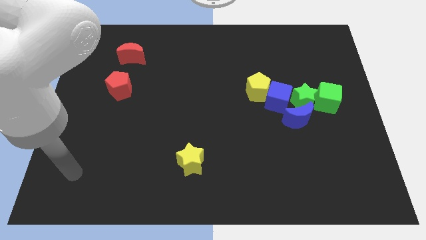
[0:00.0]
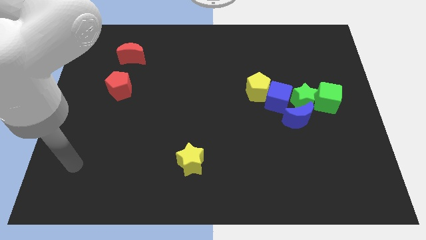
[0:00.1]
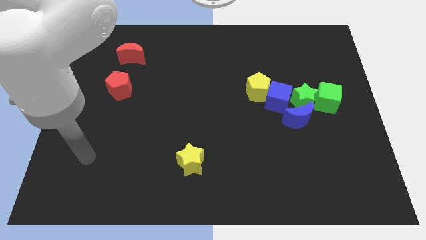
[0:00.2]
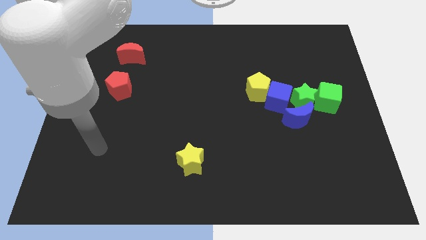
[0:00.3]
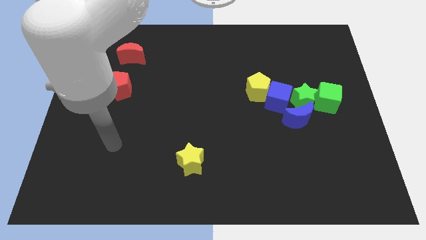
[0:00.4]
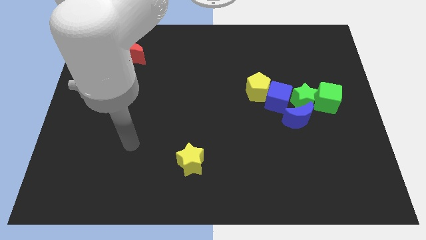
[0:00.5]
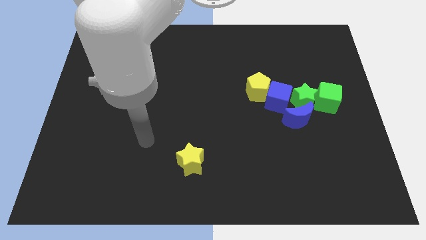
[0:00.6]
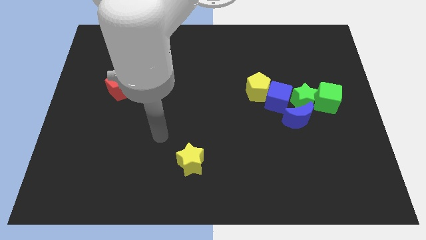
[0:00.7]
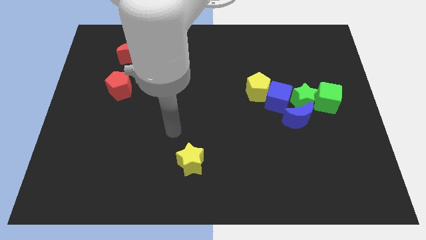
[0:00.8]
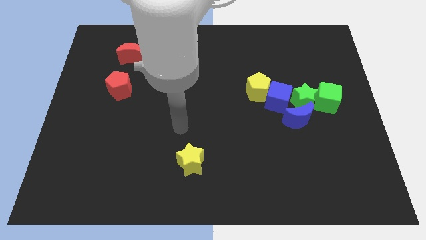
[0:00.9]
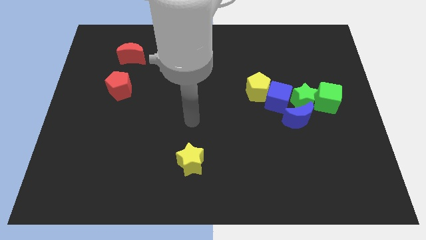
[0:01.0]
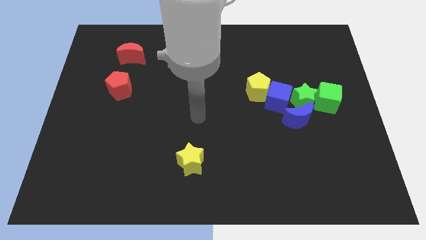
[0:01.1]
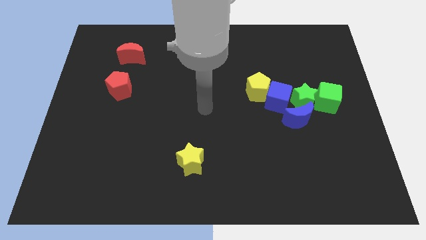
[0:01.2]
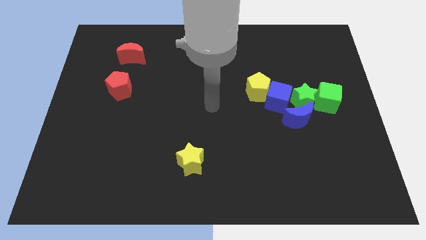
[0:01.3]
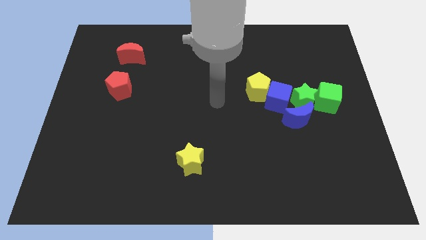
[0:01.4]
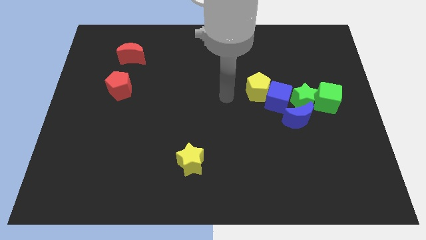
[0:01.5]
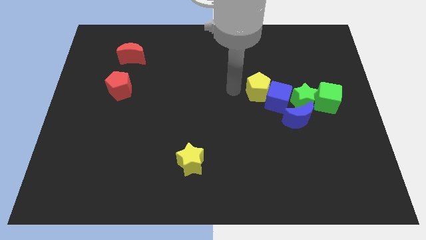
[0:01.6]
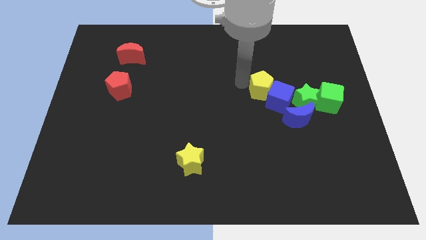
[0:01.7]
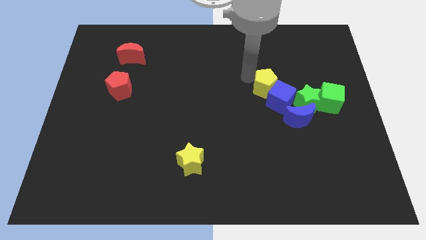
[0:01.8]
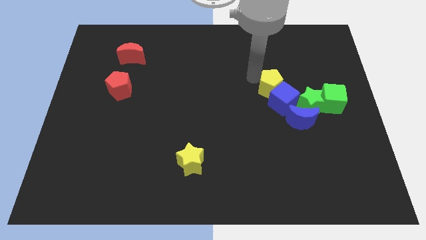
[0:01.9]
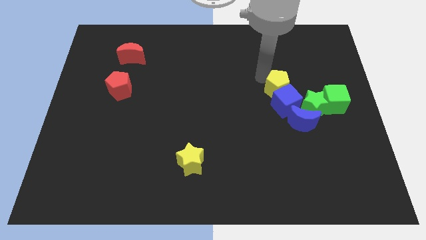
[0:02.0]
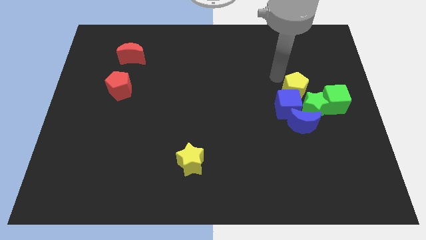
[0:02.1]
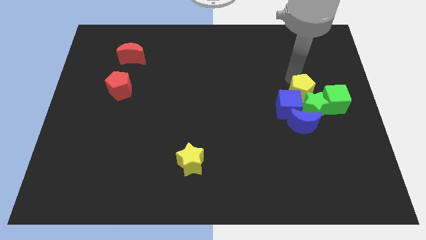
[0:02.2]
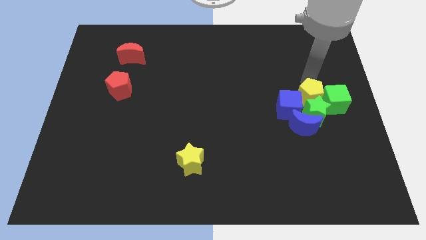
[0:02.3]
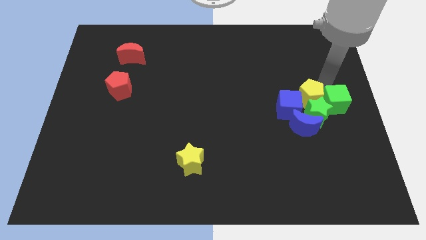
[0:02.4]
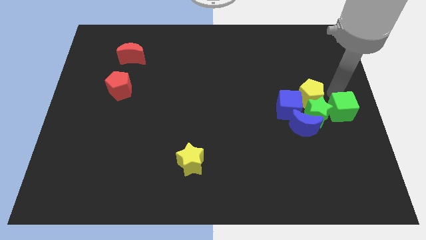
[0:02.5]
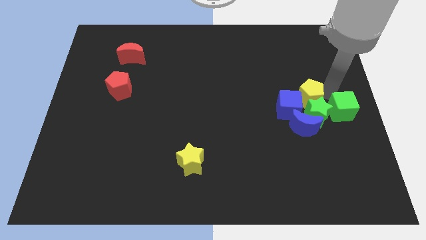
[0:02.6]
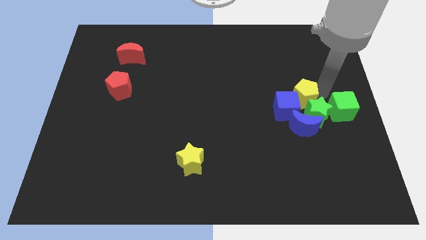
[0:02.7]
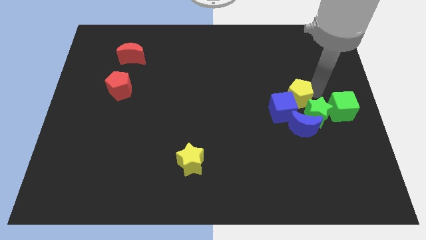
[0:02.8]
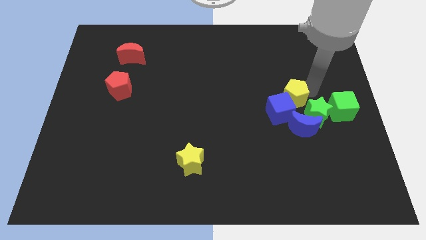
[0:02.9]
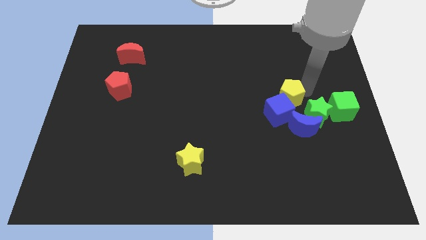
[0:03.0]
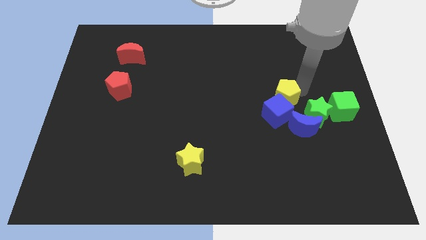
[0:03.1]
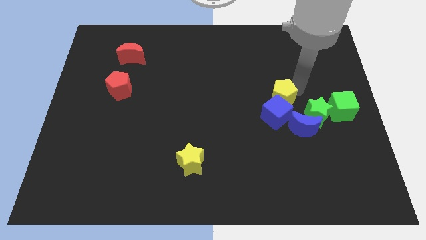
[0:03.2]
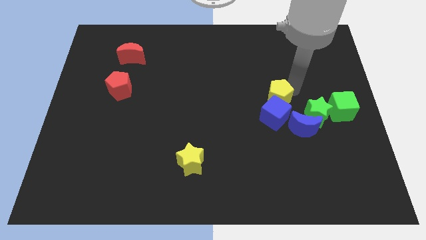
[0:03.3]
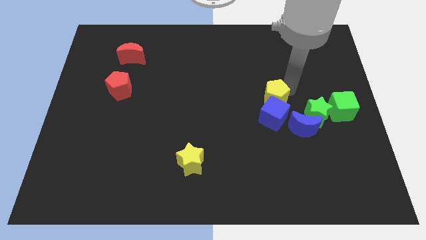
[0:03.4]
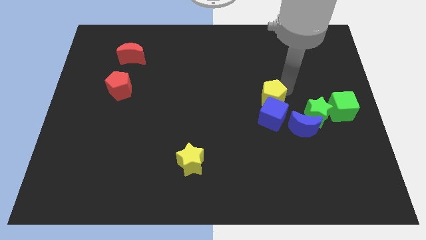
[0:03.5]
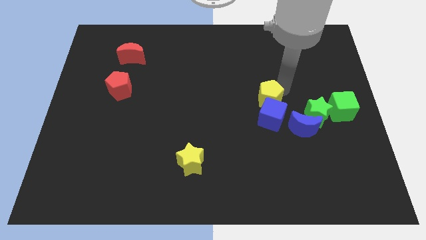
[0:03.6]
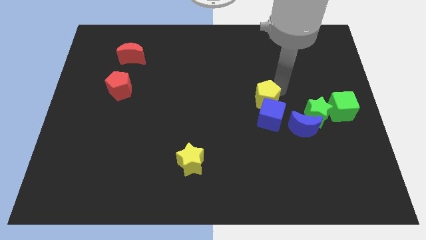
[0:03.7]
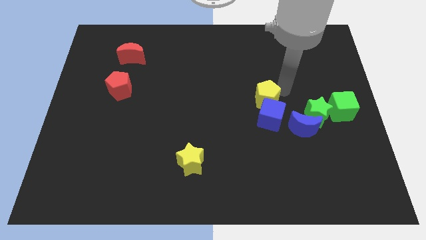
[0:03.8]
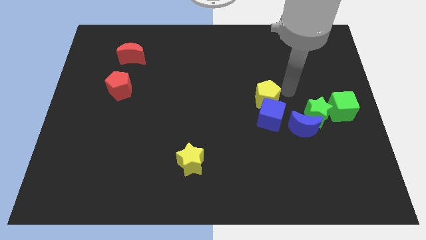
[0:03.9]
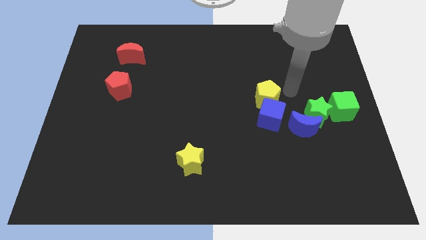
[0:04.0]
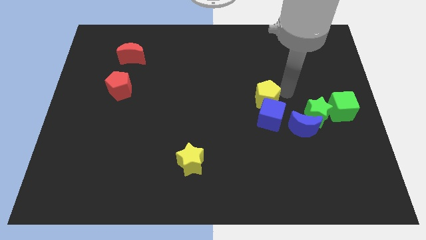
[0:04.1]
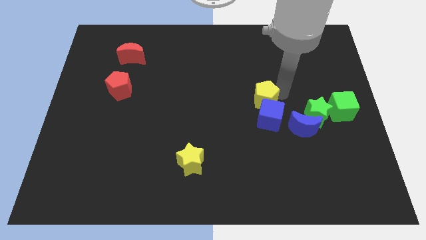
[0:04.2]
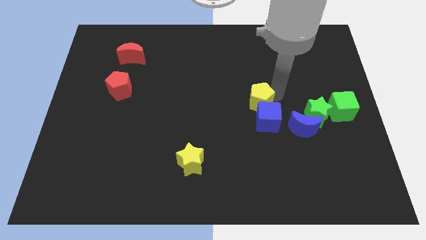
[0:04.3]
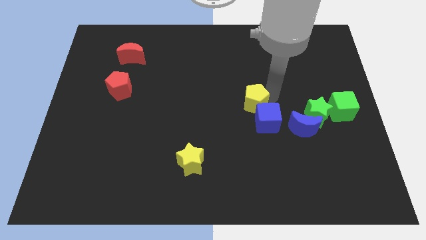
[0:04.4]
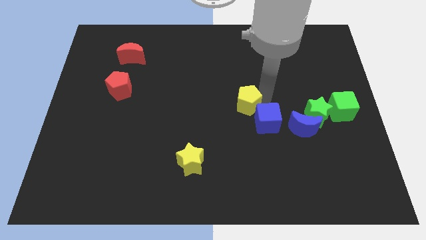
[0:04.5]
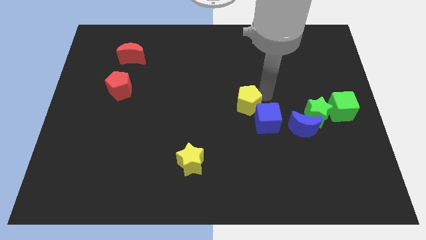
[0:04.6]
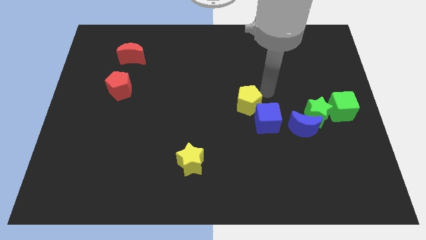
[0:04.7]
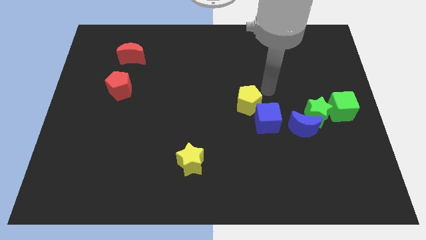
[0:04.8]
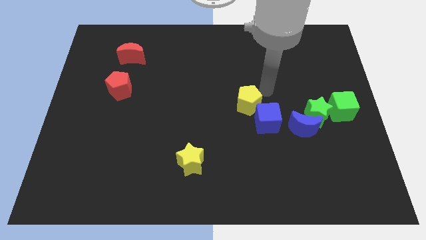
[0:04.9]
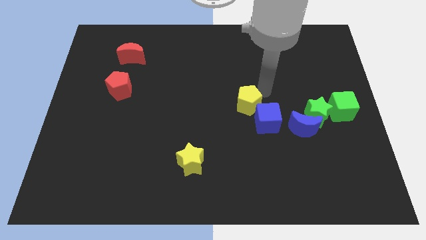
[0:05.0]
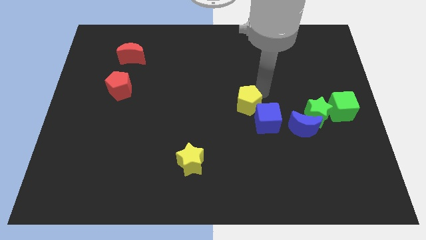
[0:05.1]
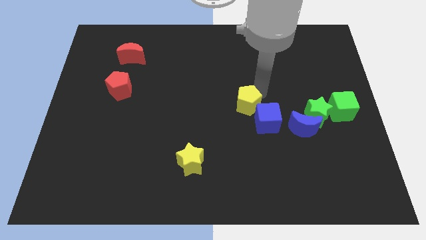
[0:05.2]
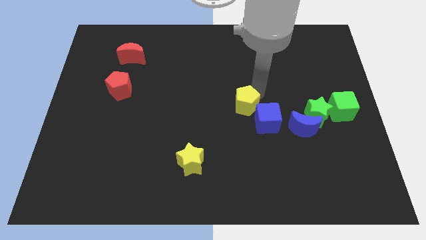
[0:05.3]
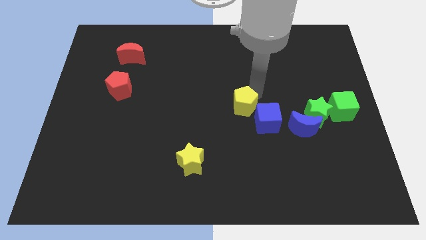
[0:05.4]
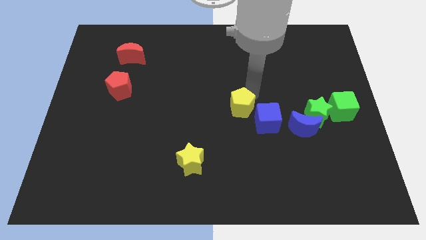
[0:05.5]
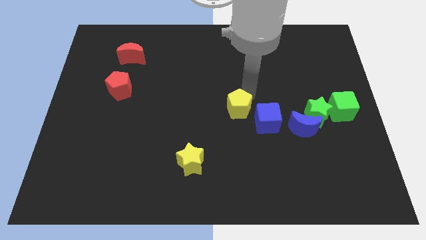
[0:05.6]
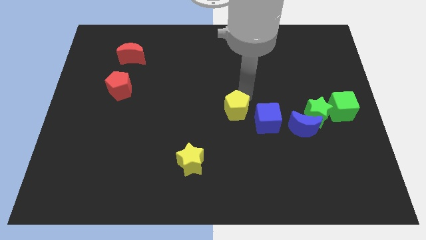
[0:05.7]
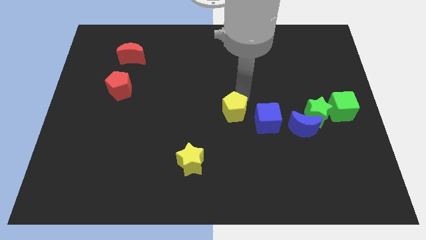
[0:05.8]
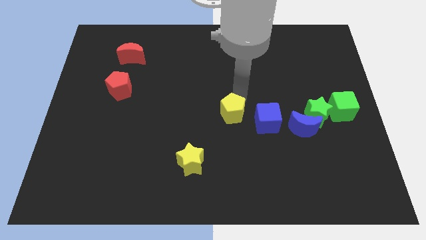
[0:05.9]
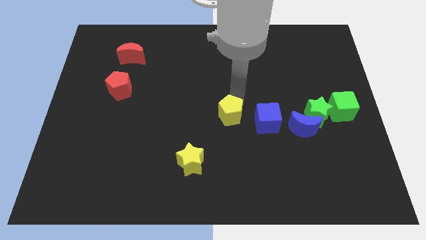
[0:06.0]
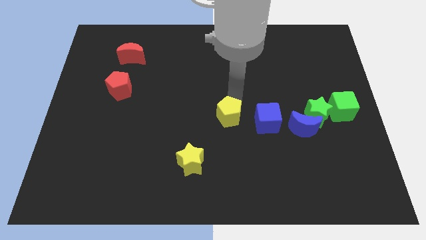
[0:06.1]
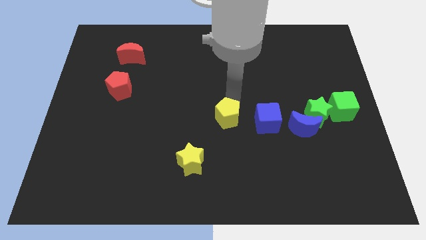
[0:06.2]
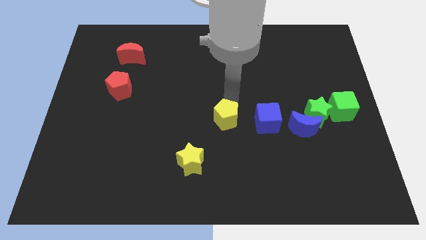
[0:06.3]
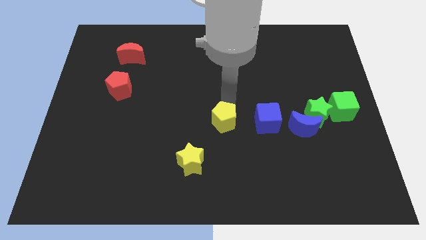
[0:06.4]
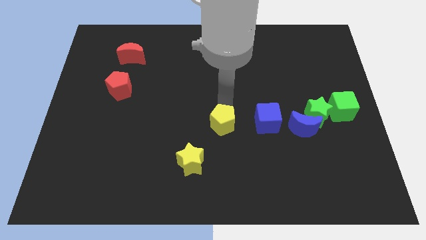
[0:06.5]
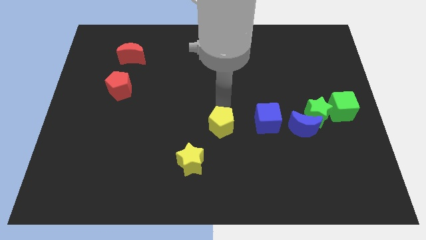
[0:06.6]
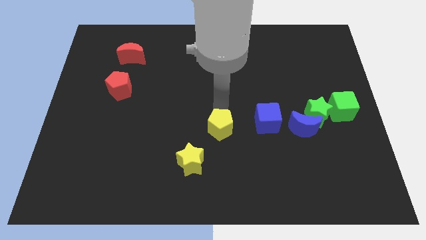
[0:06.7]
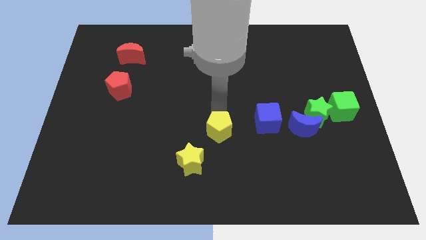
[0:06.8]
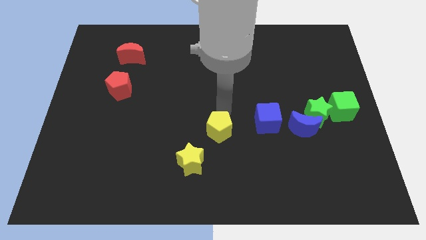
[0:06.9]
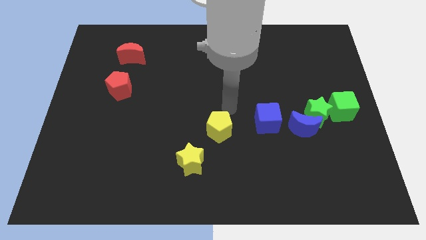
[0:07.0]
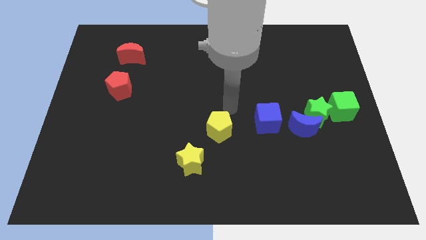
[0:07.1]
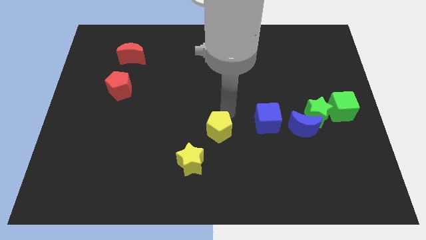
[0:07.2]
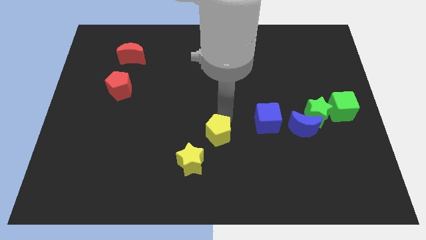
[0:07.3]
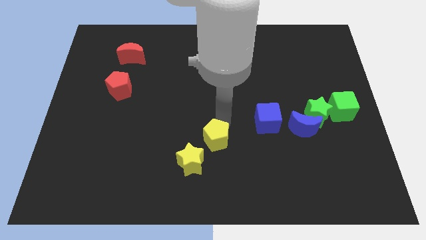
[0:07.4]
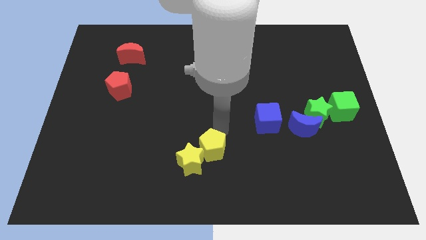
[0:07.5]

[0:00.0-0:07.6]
move the yellow pentagon towards the yellow star
